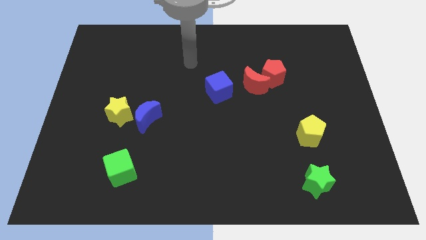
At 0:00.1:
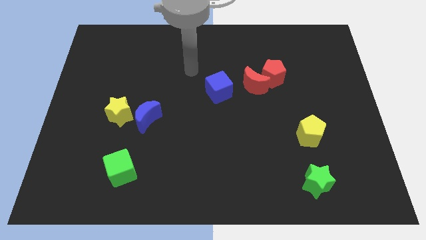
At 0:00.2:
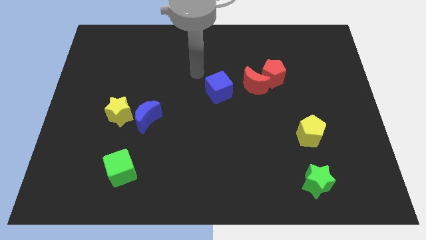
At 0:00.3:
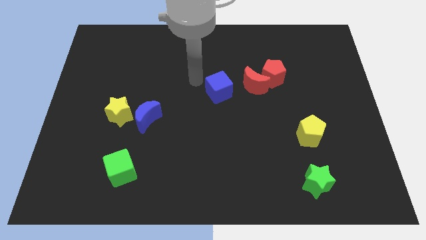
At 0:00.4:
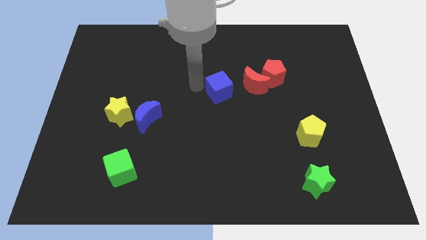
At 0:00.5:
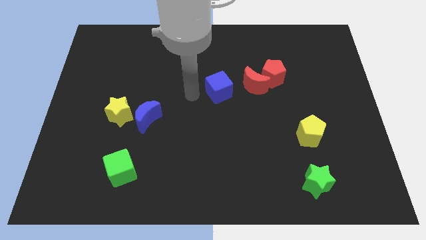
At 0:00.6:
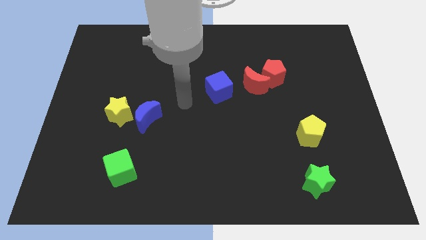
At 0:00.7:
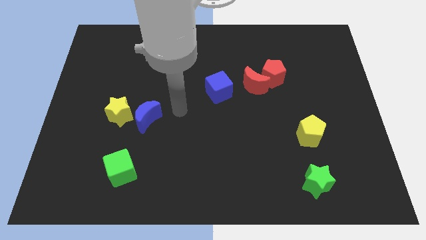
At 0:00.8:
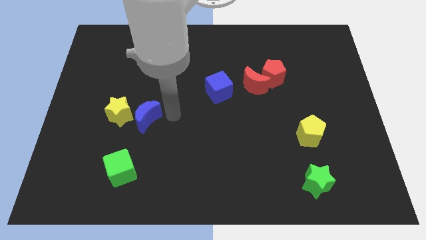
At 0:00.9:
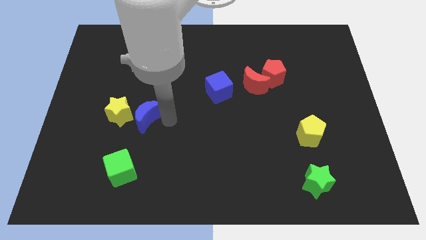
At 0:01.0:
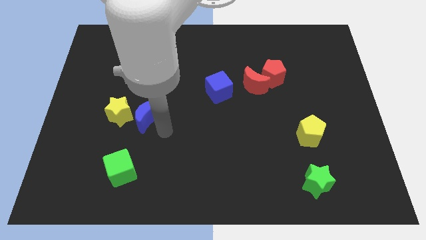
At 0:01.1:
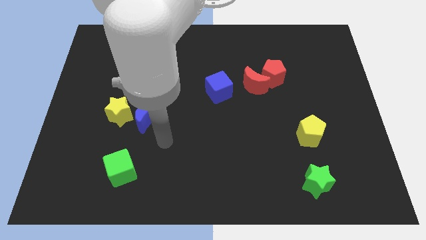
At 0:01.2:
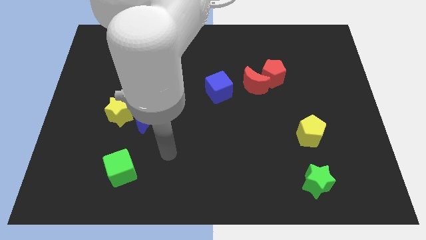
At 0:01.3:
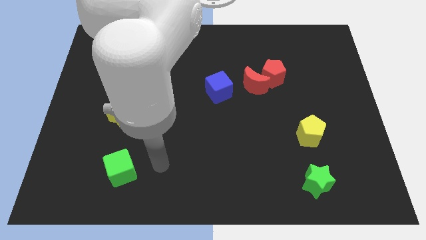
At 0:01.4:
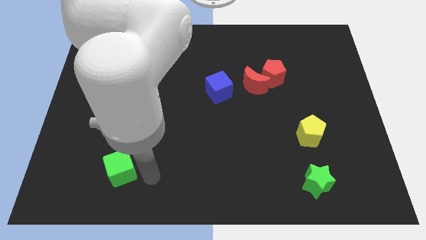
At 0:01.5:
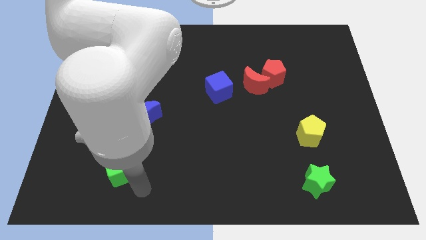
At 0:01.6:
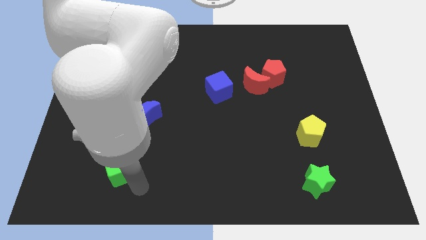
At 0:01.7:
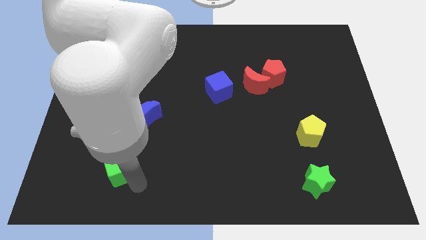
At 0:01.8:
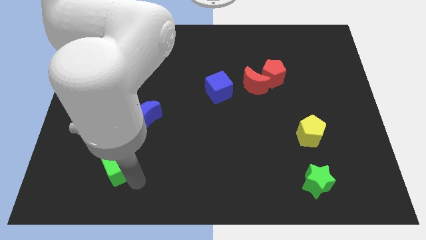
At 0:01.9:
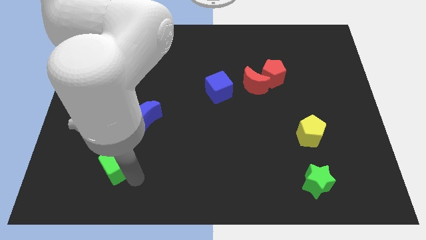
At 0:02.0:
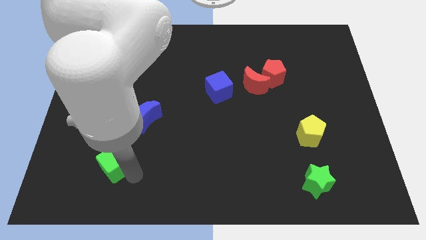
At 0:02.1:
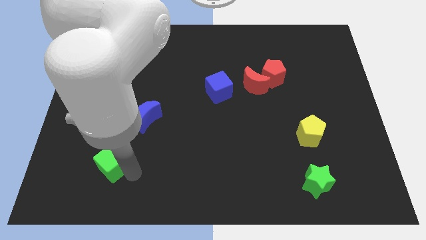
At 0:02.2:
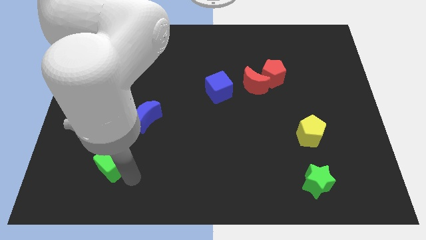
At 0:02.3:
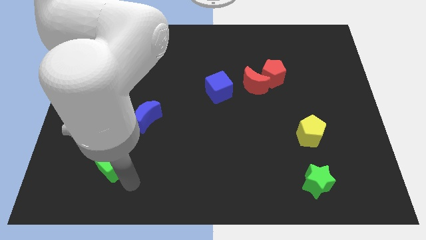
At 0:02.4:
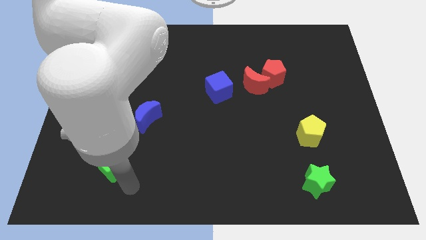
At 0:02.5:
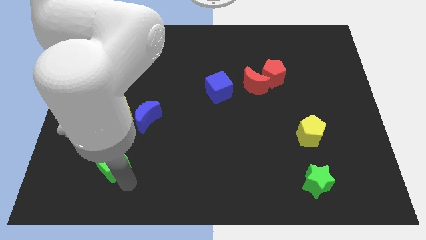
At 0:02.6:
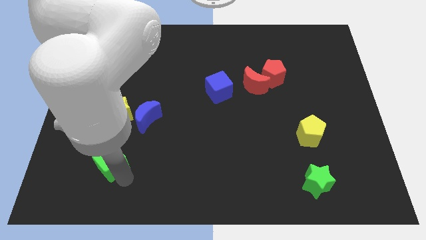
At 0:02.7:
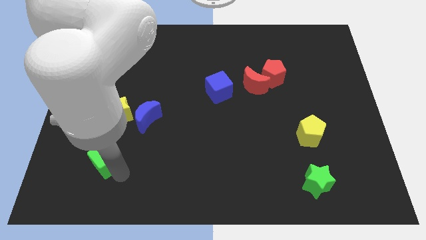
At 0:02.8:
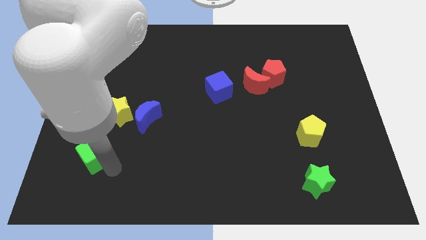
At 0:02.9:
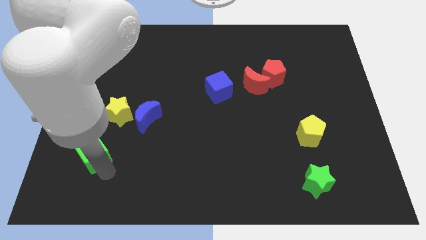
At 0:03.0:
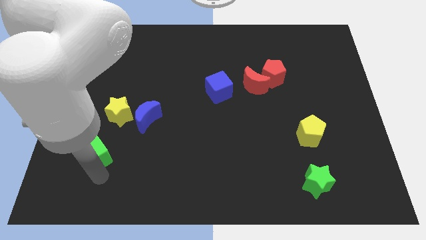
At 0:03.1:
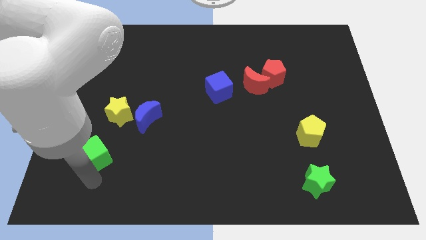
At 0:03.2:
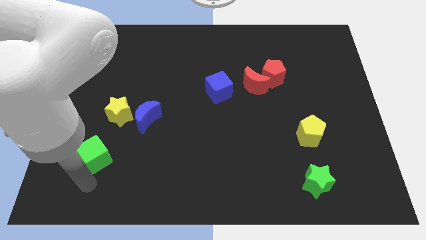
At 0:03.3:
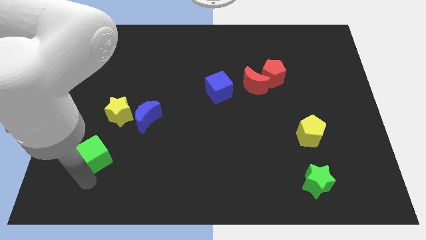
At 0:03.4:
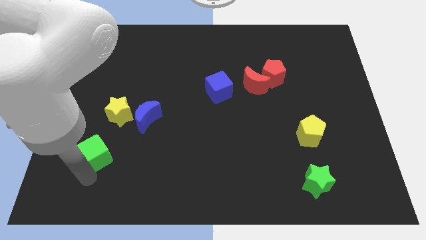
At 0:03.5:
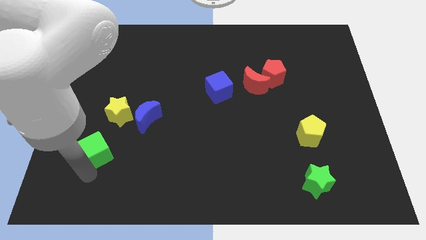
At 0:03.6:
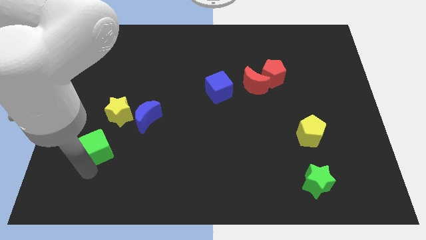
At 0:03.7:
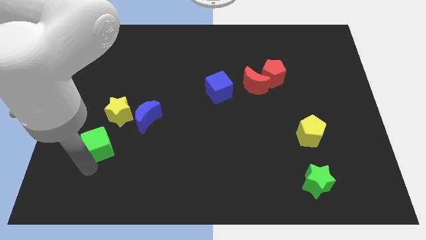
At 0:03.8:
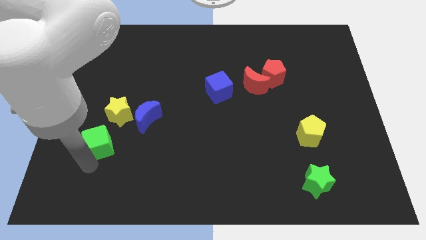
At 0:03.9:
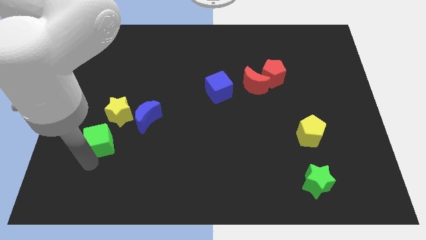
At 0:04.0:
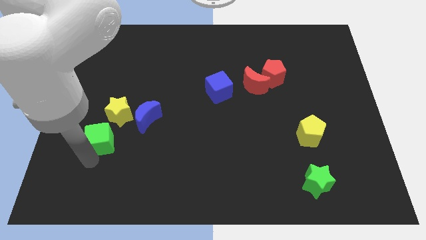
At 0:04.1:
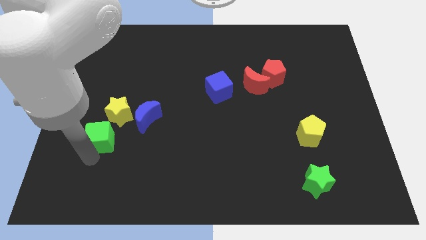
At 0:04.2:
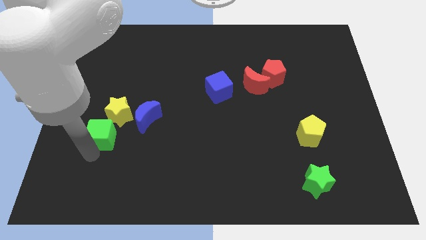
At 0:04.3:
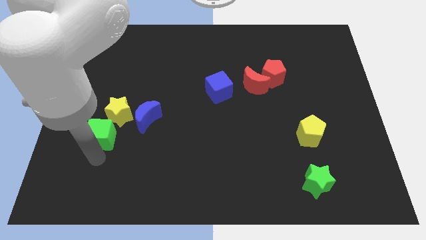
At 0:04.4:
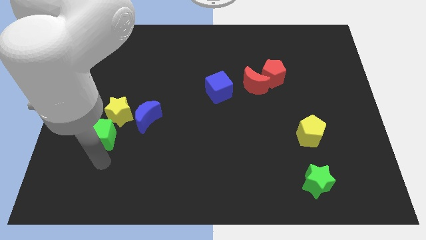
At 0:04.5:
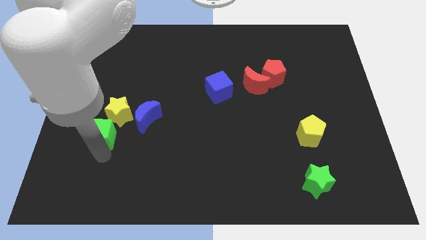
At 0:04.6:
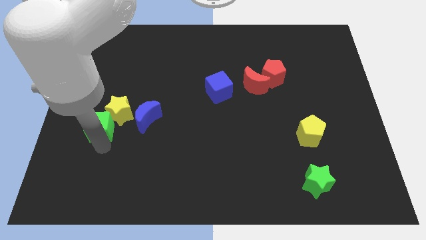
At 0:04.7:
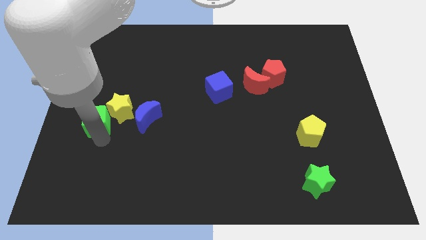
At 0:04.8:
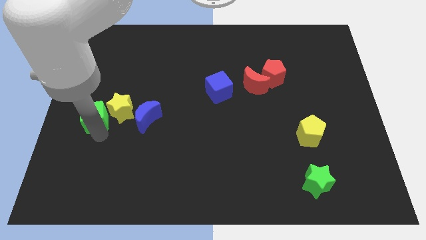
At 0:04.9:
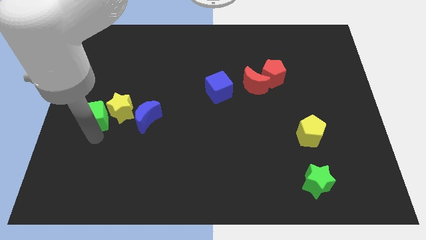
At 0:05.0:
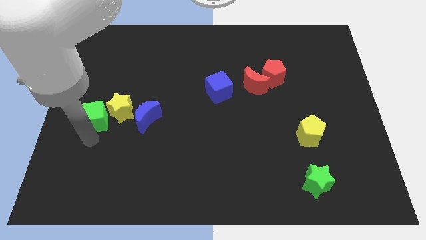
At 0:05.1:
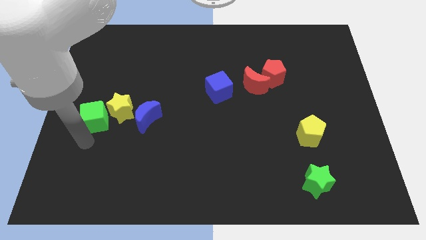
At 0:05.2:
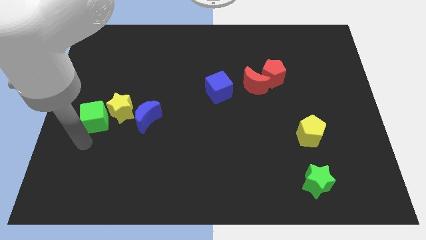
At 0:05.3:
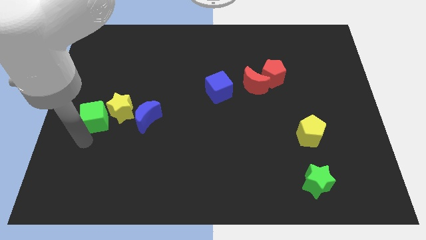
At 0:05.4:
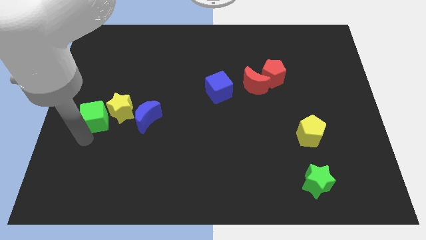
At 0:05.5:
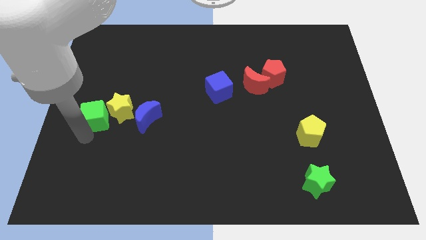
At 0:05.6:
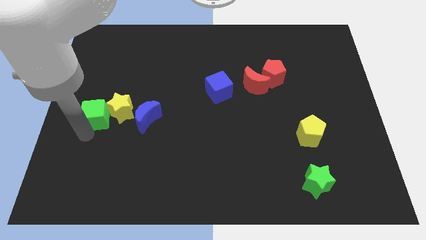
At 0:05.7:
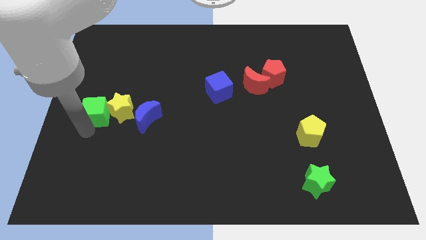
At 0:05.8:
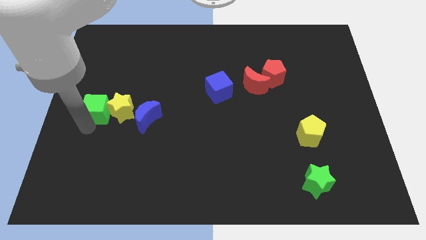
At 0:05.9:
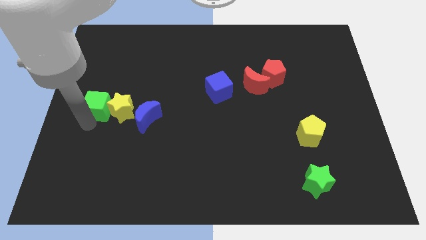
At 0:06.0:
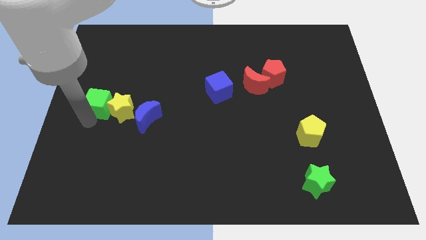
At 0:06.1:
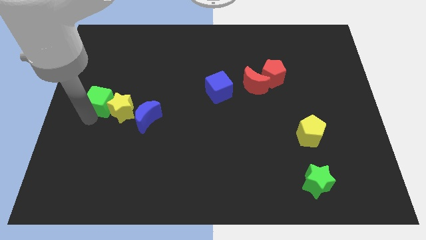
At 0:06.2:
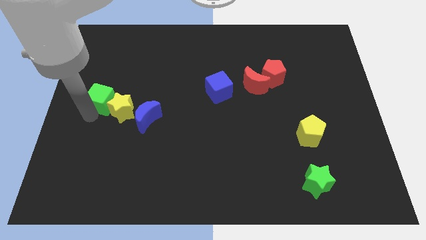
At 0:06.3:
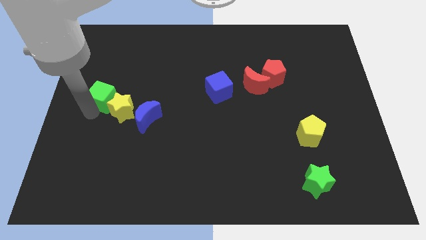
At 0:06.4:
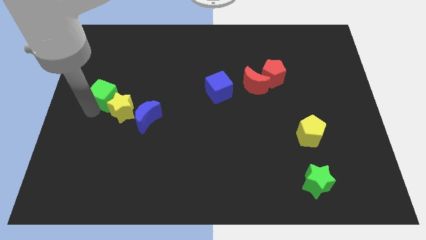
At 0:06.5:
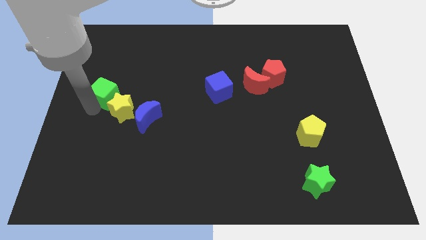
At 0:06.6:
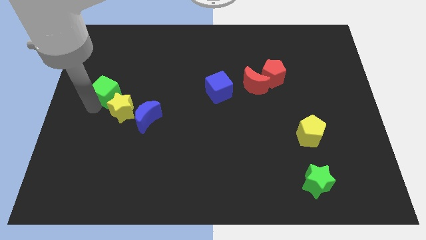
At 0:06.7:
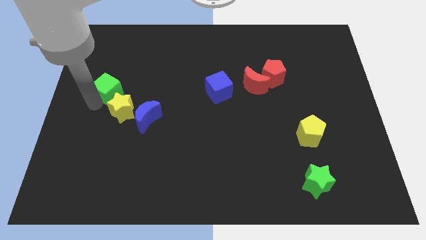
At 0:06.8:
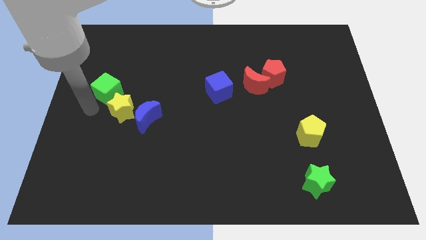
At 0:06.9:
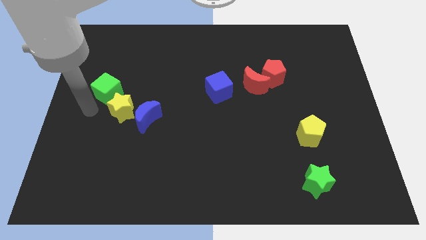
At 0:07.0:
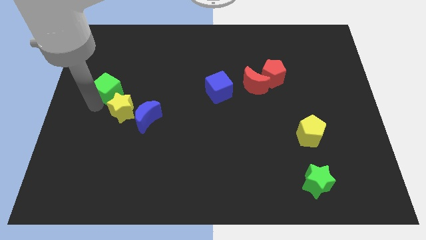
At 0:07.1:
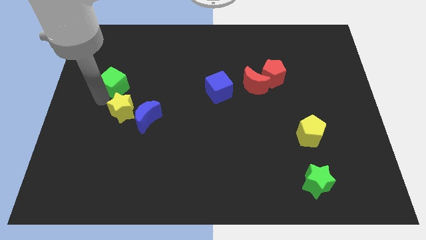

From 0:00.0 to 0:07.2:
push the green cube upwards

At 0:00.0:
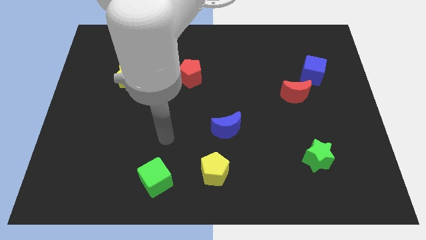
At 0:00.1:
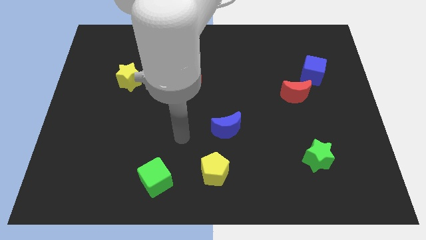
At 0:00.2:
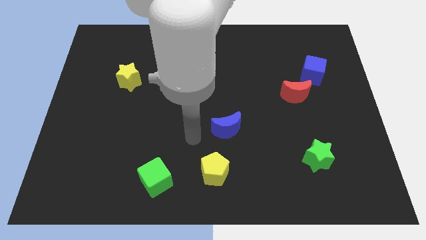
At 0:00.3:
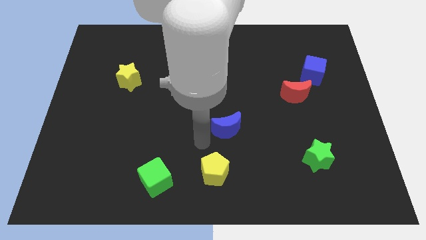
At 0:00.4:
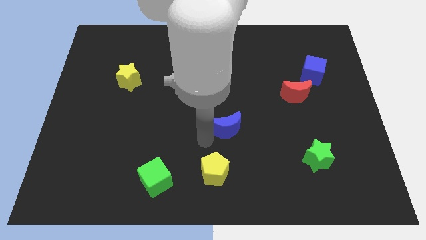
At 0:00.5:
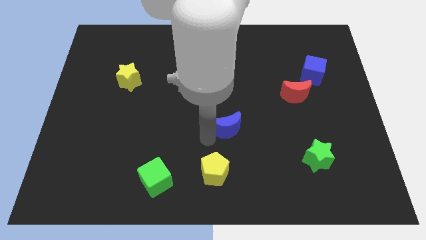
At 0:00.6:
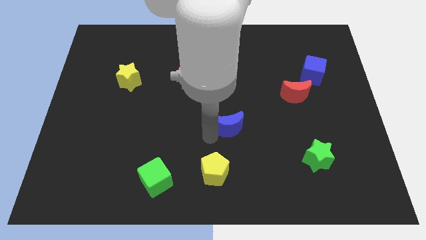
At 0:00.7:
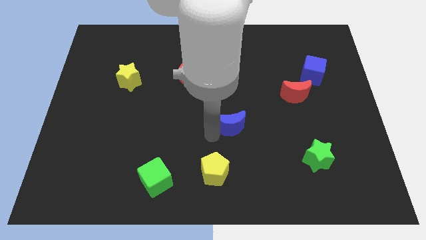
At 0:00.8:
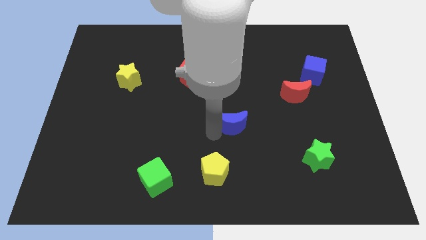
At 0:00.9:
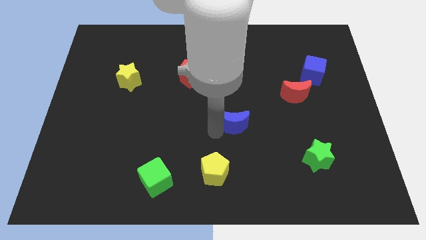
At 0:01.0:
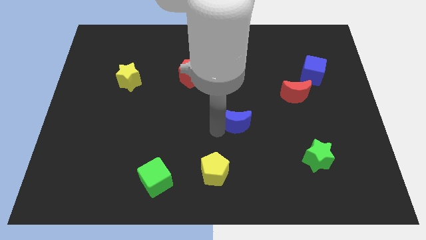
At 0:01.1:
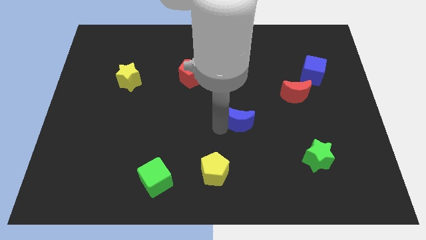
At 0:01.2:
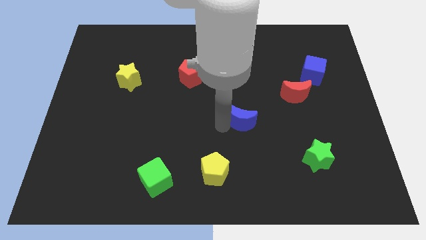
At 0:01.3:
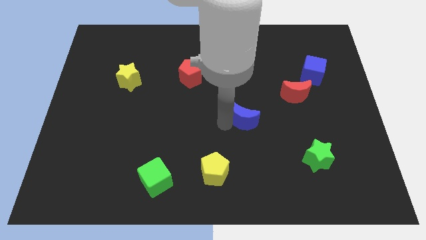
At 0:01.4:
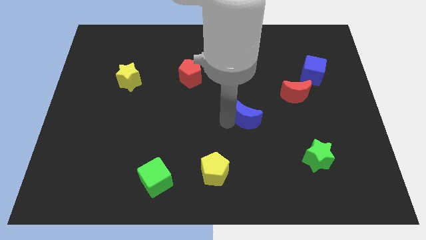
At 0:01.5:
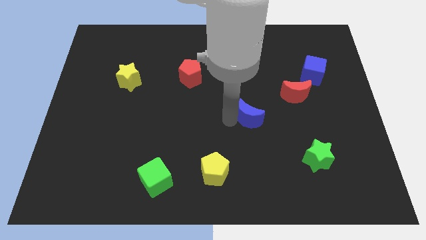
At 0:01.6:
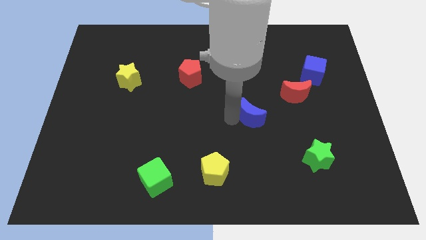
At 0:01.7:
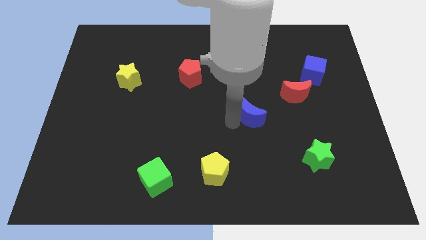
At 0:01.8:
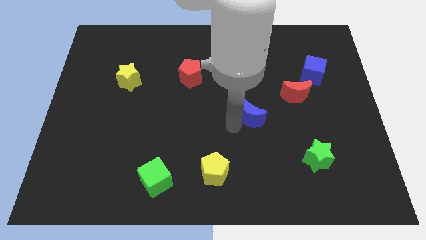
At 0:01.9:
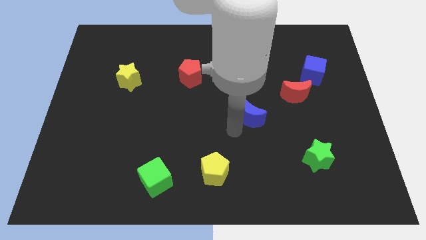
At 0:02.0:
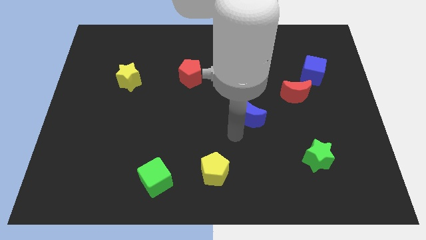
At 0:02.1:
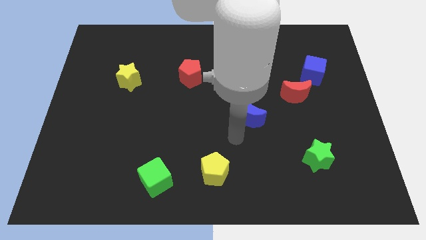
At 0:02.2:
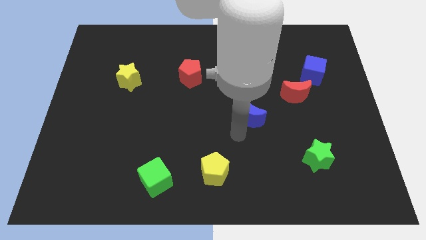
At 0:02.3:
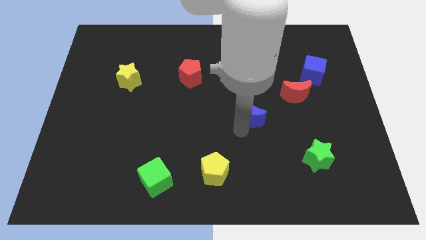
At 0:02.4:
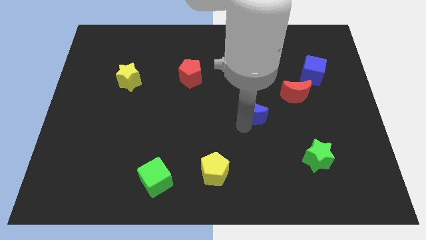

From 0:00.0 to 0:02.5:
slide the blue moon somewhat diagonally up and right
